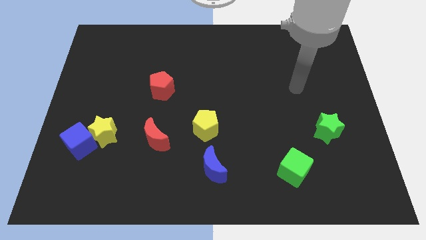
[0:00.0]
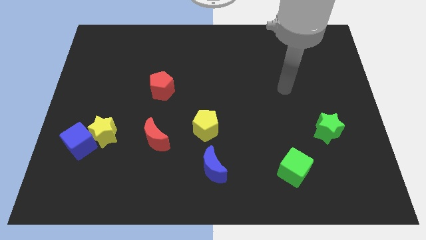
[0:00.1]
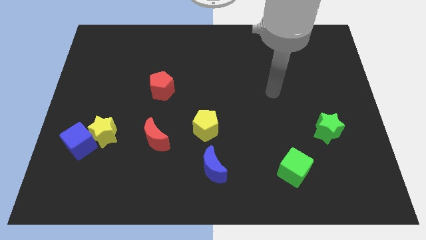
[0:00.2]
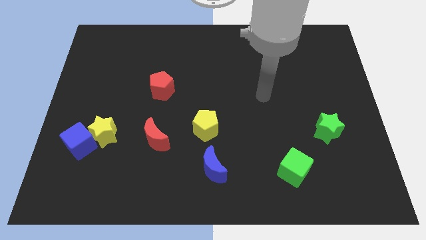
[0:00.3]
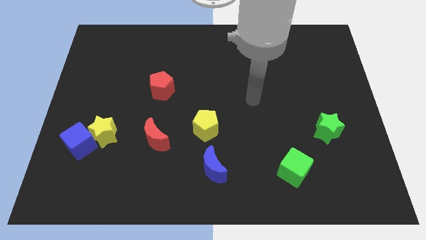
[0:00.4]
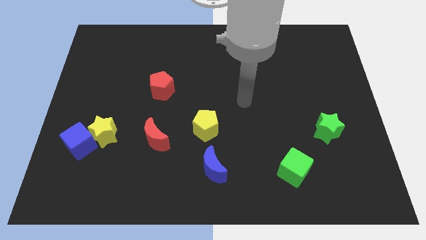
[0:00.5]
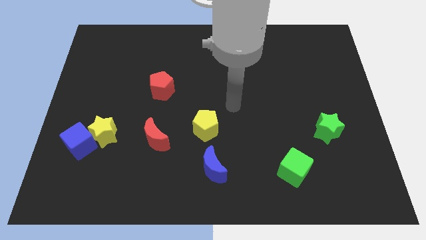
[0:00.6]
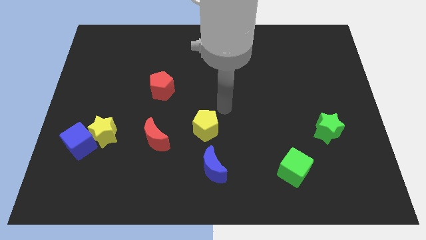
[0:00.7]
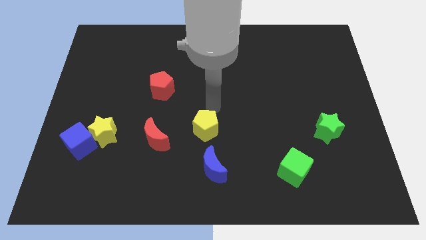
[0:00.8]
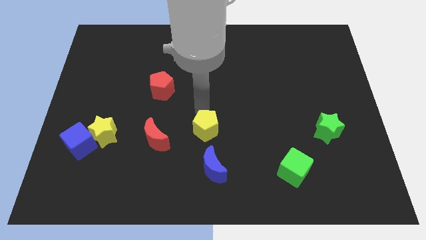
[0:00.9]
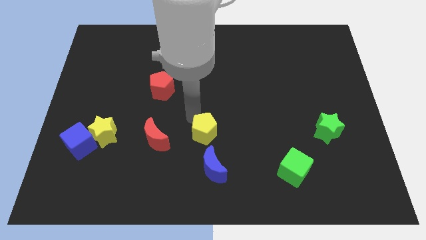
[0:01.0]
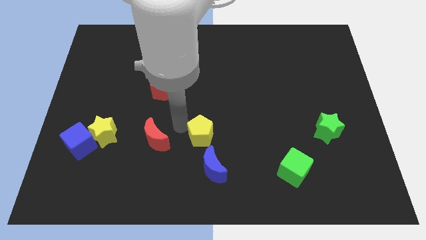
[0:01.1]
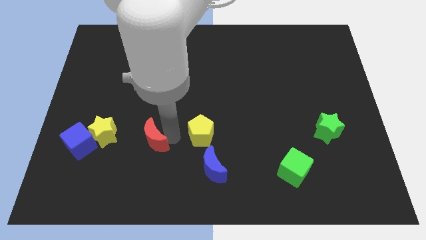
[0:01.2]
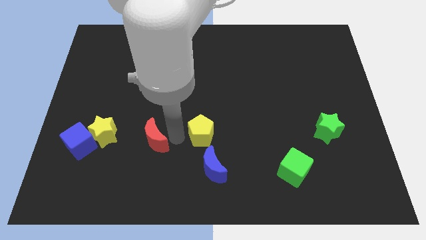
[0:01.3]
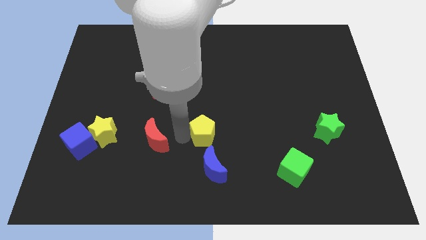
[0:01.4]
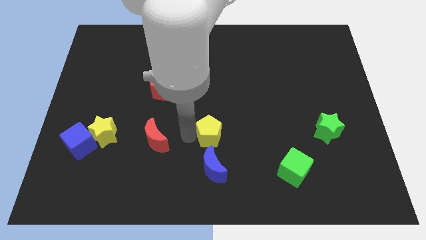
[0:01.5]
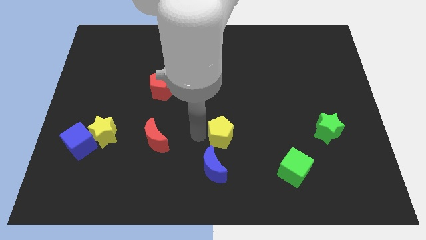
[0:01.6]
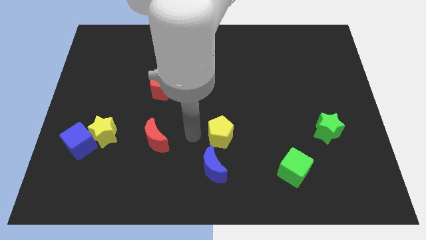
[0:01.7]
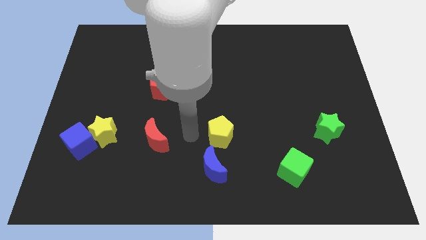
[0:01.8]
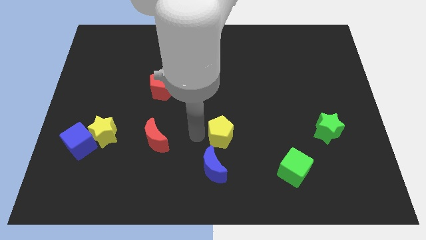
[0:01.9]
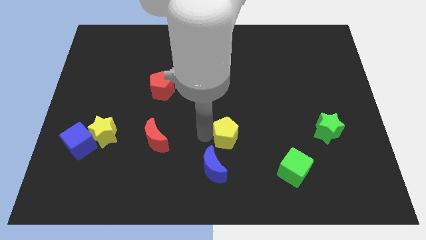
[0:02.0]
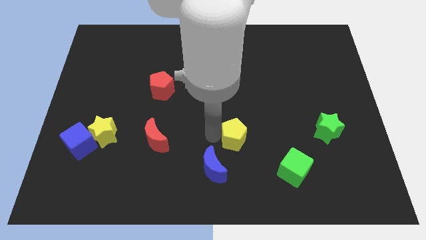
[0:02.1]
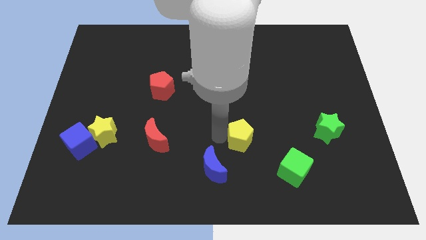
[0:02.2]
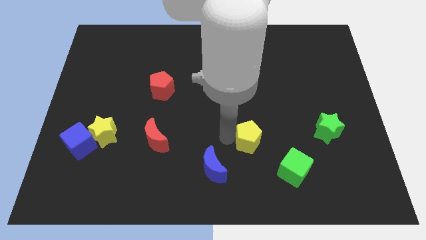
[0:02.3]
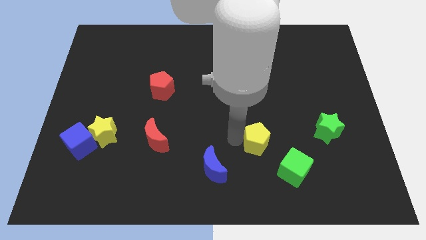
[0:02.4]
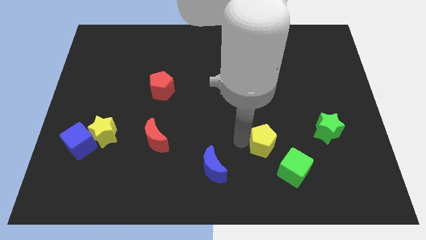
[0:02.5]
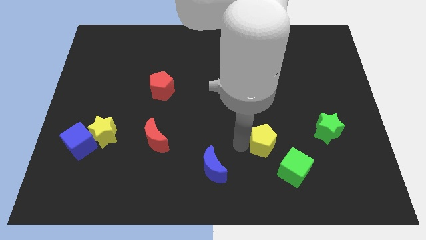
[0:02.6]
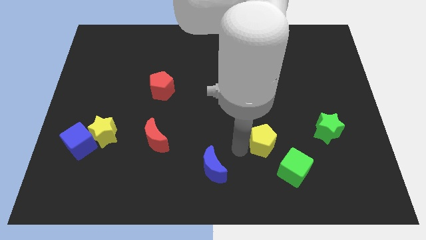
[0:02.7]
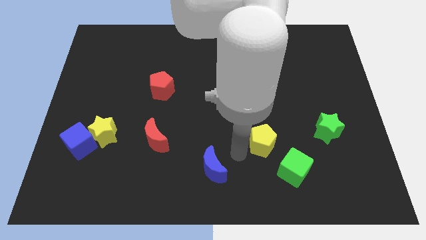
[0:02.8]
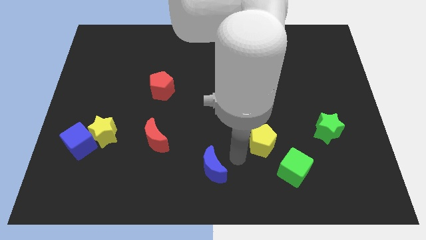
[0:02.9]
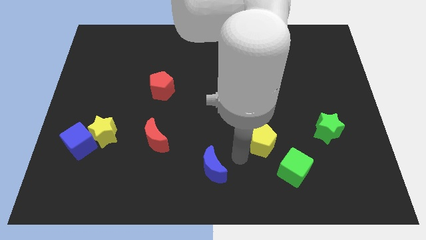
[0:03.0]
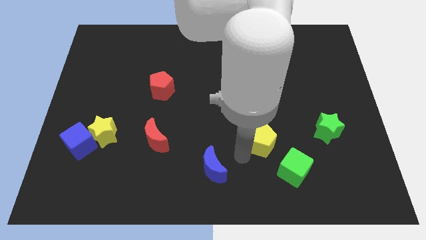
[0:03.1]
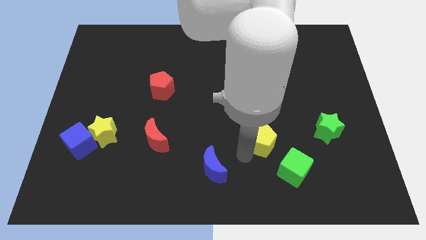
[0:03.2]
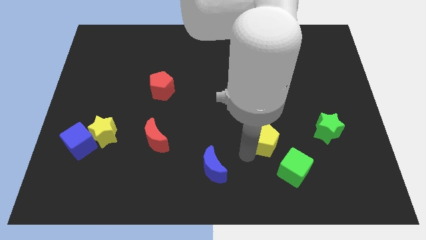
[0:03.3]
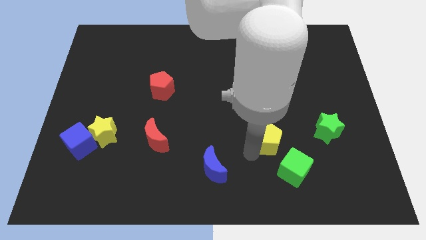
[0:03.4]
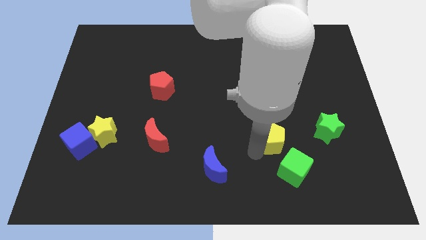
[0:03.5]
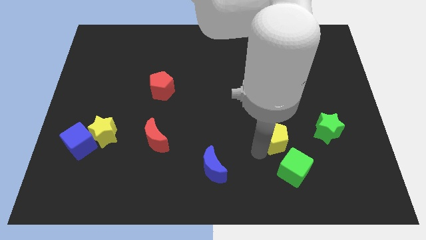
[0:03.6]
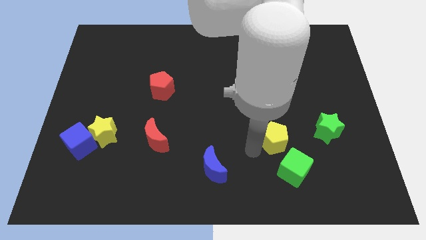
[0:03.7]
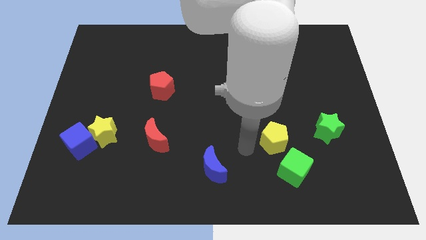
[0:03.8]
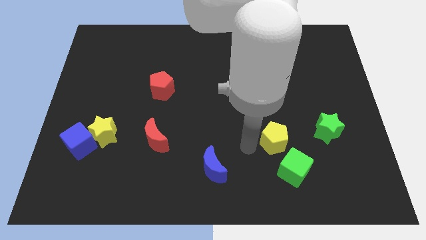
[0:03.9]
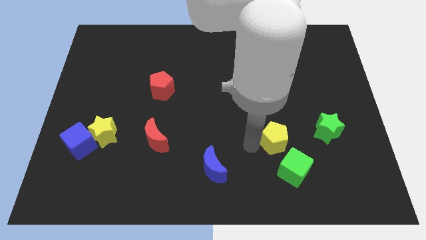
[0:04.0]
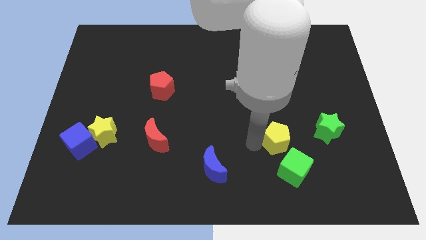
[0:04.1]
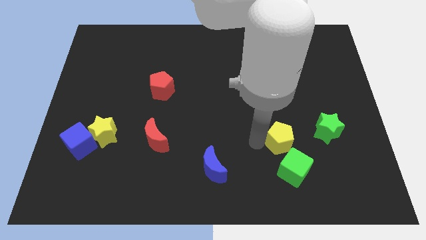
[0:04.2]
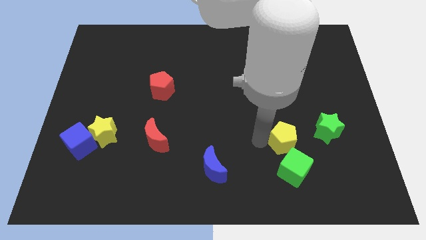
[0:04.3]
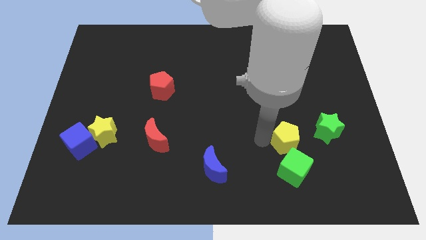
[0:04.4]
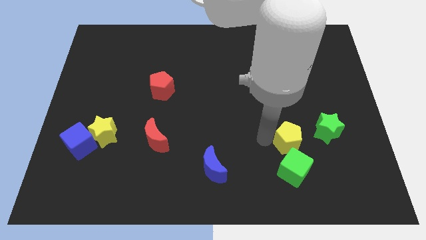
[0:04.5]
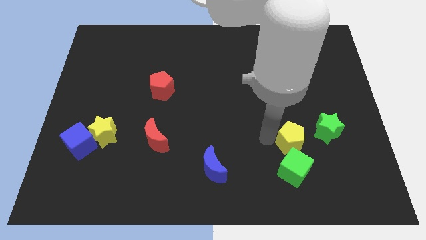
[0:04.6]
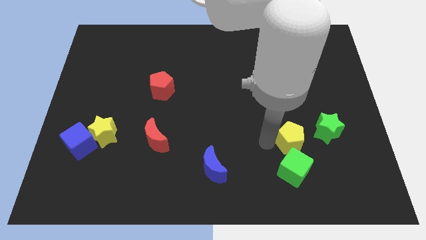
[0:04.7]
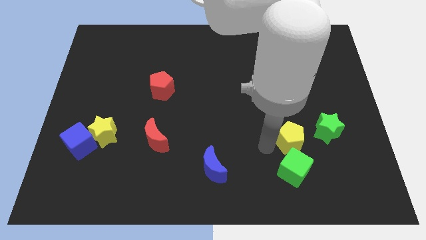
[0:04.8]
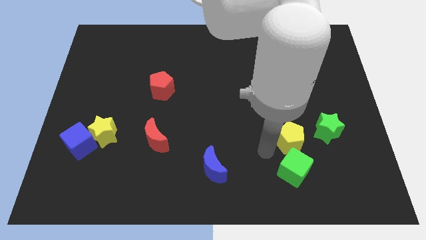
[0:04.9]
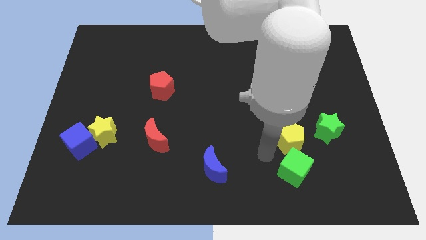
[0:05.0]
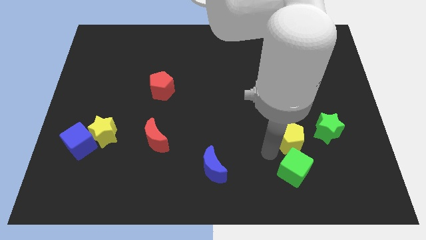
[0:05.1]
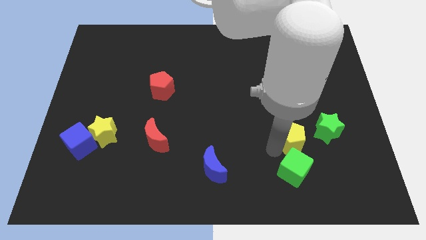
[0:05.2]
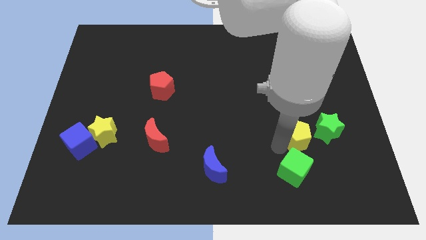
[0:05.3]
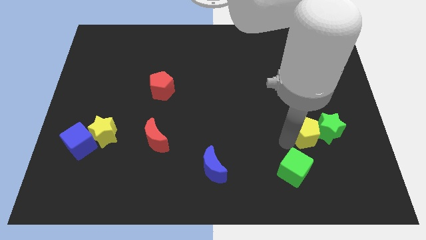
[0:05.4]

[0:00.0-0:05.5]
move the yellow pentagon next to the green star

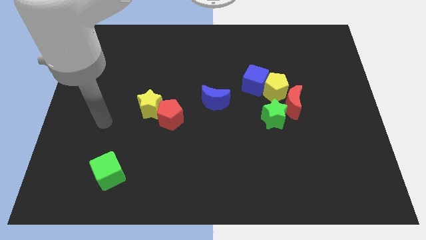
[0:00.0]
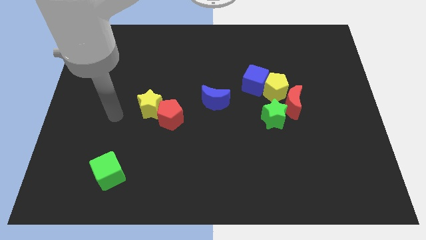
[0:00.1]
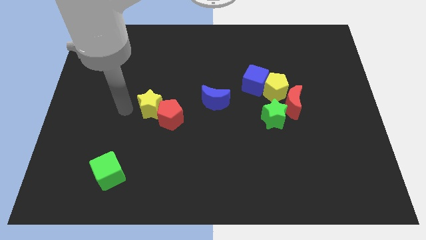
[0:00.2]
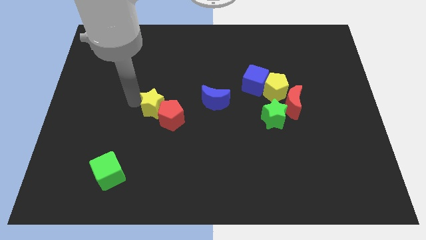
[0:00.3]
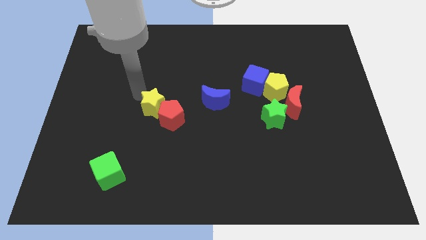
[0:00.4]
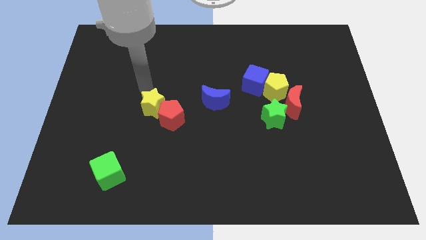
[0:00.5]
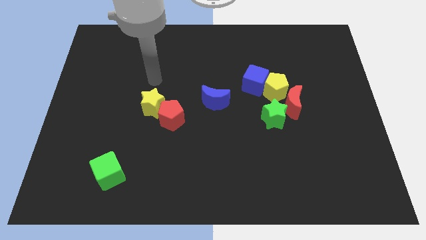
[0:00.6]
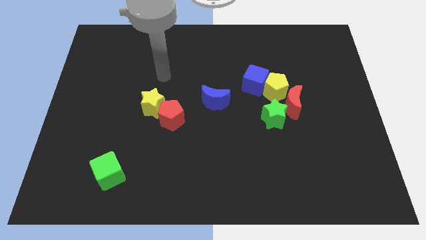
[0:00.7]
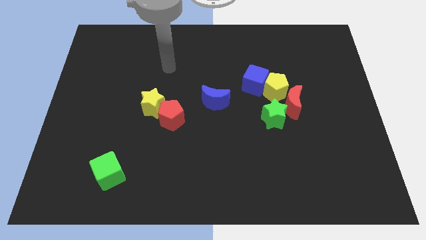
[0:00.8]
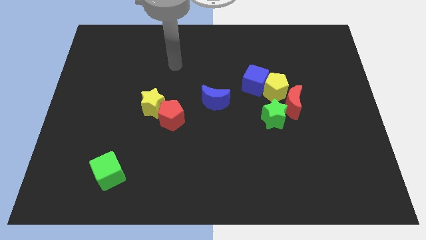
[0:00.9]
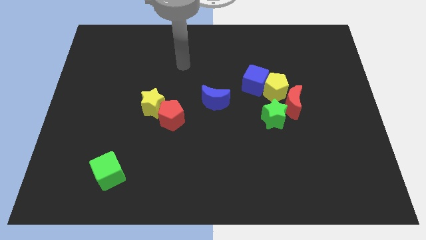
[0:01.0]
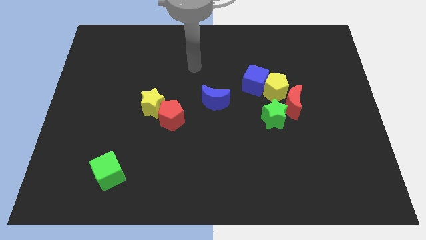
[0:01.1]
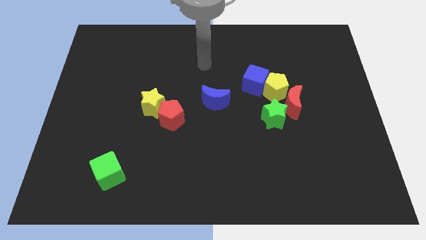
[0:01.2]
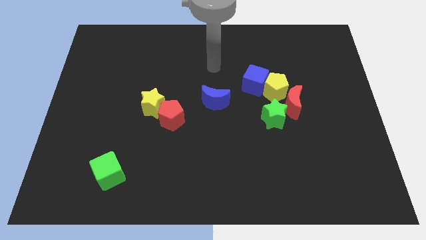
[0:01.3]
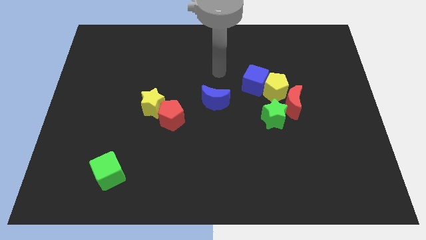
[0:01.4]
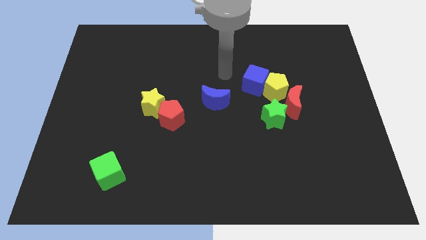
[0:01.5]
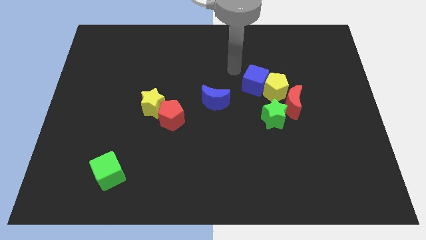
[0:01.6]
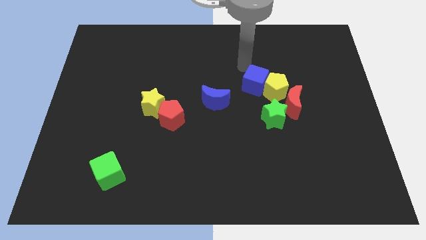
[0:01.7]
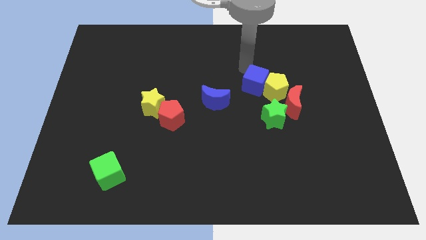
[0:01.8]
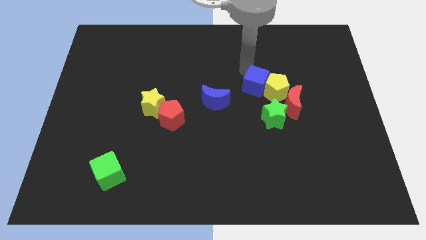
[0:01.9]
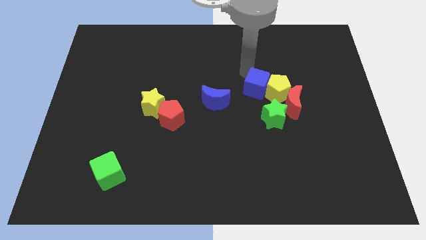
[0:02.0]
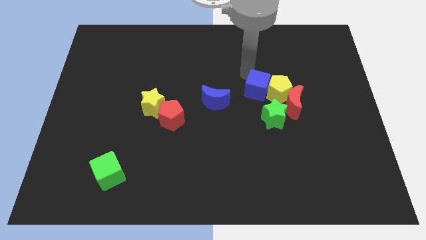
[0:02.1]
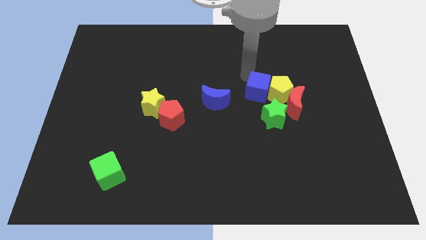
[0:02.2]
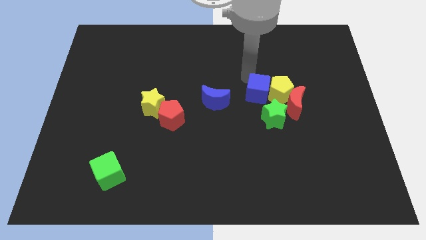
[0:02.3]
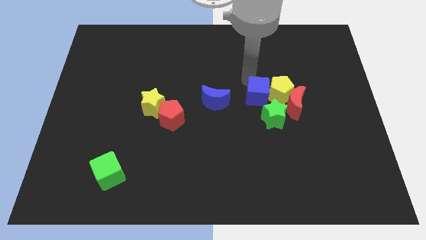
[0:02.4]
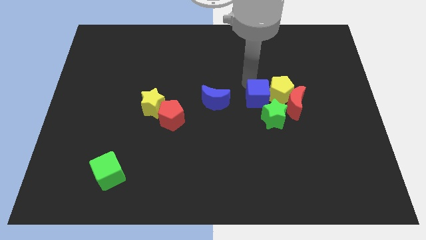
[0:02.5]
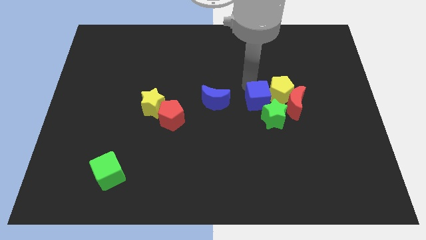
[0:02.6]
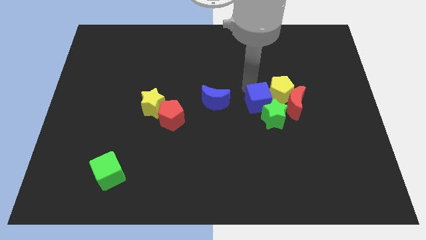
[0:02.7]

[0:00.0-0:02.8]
move the blue cube next to the green star
